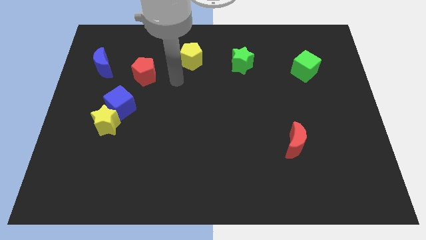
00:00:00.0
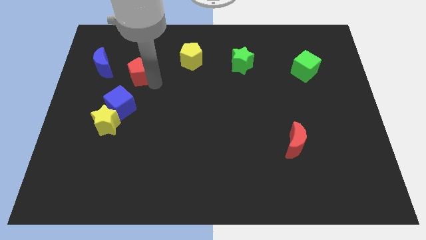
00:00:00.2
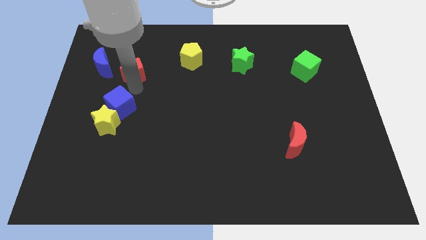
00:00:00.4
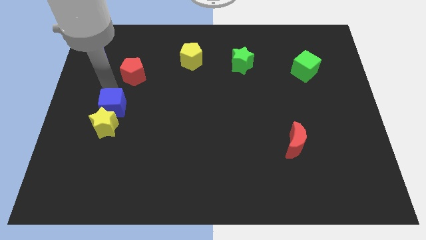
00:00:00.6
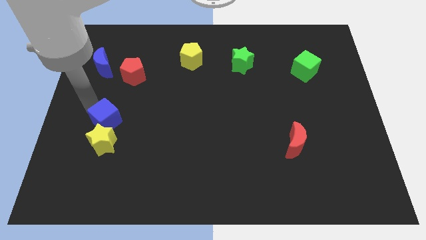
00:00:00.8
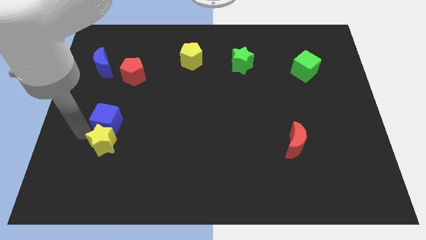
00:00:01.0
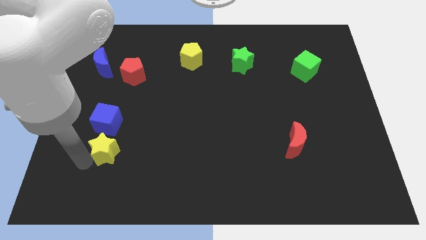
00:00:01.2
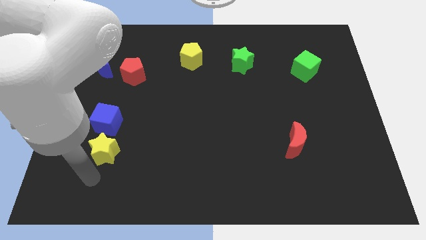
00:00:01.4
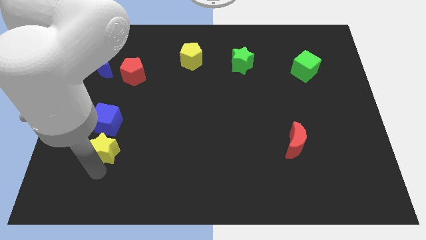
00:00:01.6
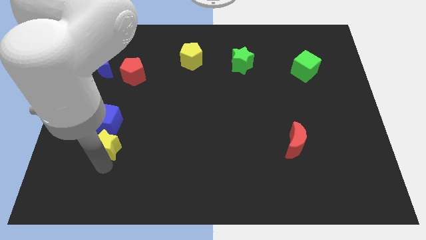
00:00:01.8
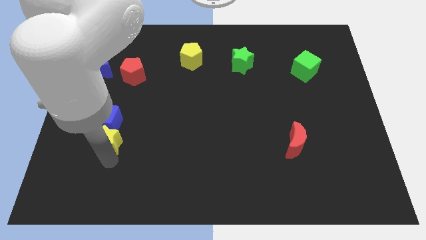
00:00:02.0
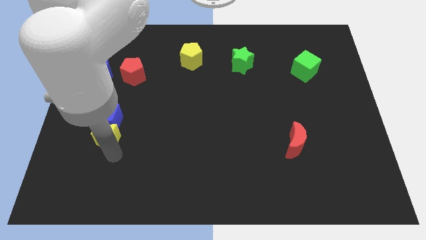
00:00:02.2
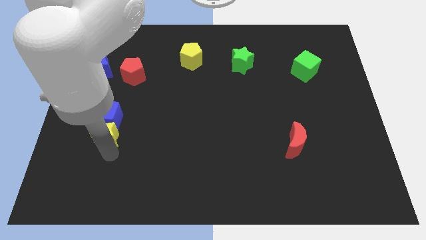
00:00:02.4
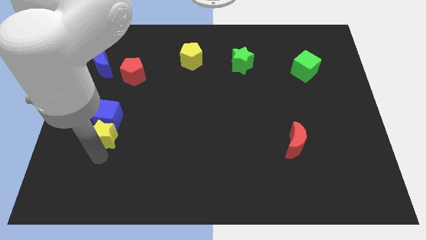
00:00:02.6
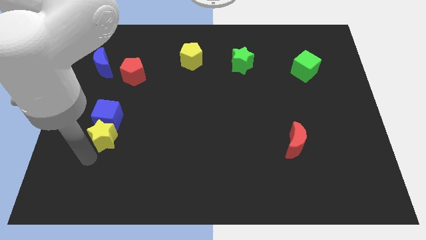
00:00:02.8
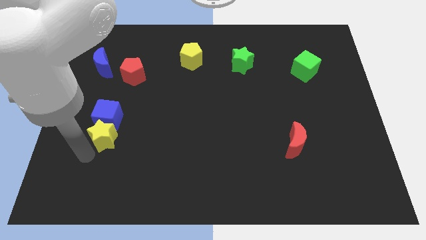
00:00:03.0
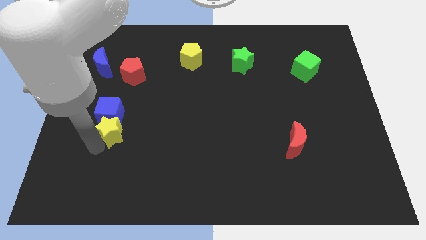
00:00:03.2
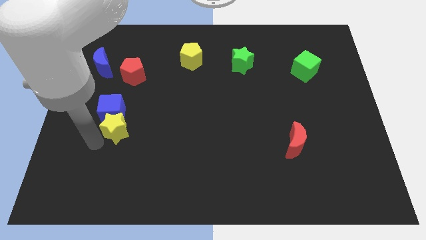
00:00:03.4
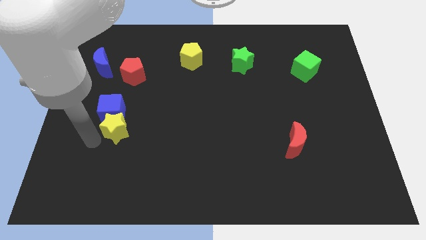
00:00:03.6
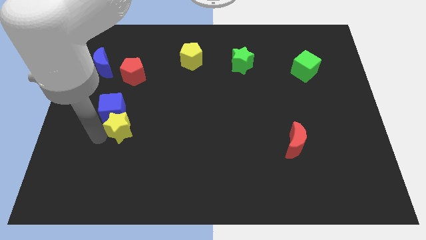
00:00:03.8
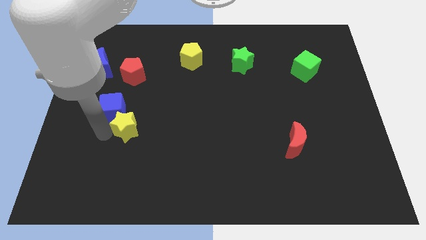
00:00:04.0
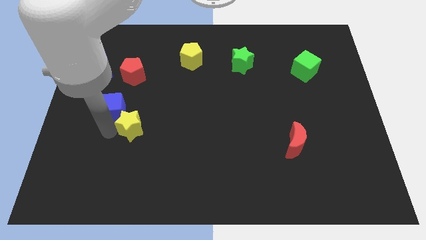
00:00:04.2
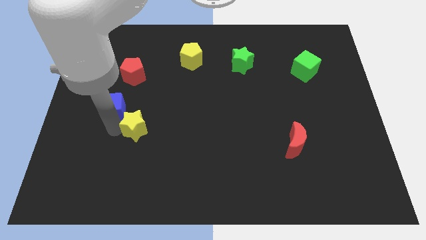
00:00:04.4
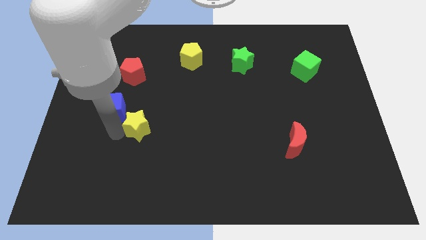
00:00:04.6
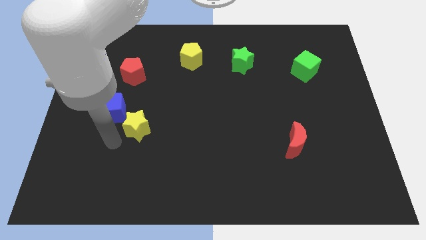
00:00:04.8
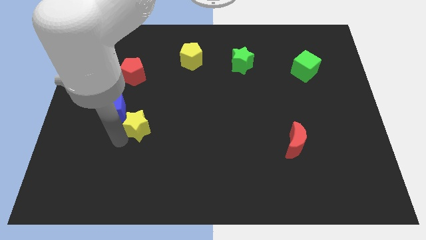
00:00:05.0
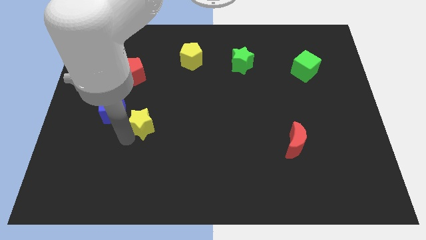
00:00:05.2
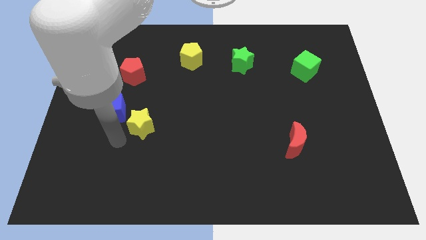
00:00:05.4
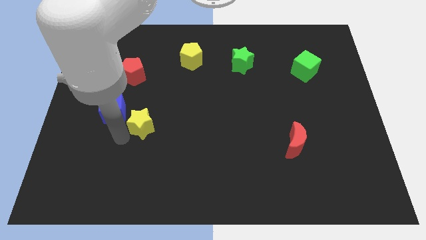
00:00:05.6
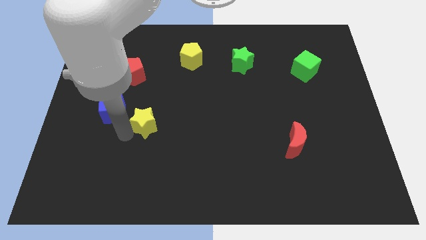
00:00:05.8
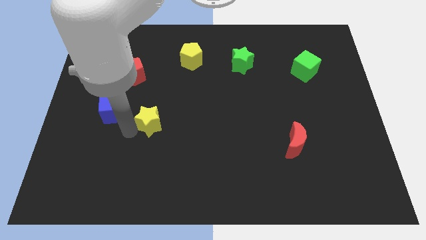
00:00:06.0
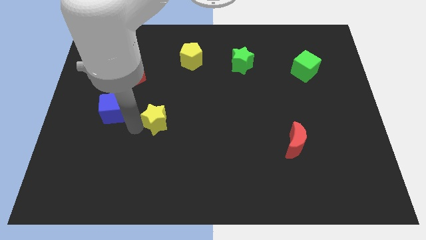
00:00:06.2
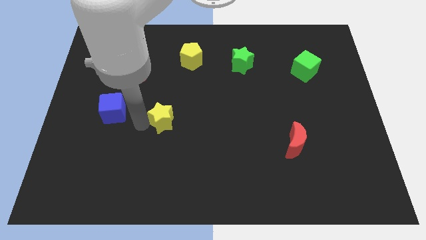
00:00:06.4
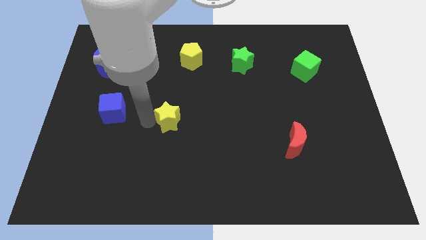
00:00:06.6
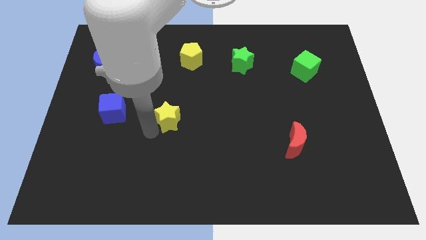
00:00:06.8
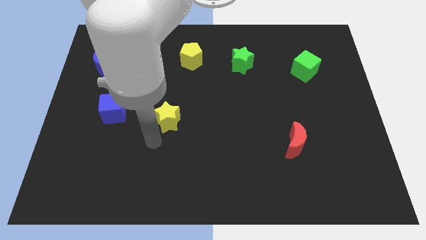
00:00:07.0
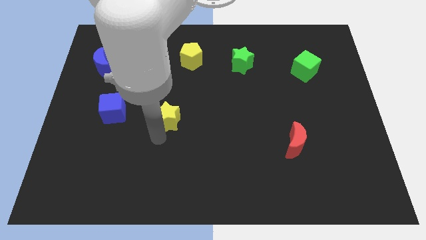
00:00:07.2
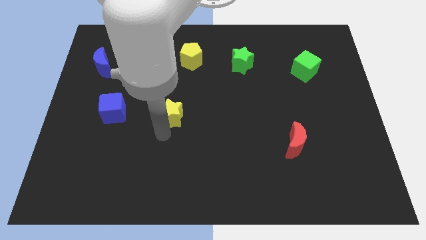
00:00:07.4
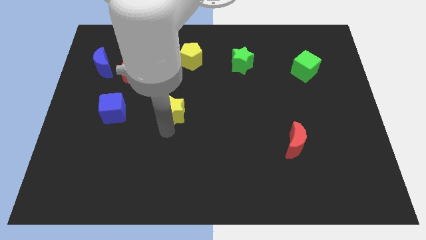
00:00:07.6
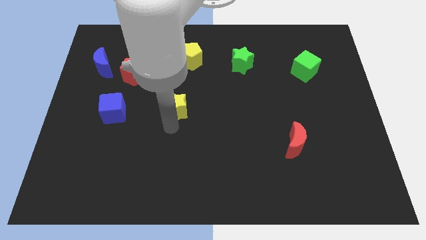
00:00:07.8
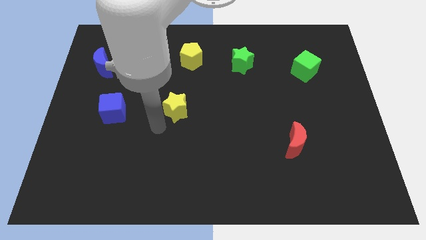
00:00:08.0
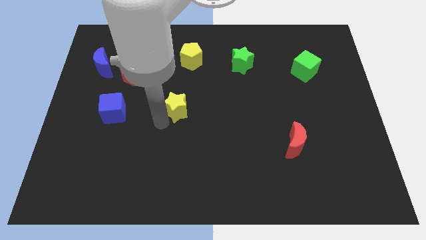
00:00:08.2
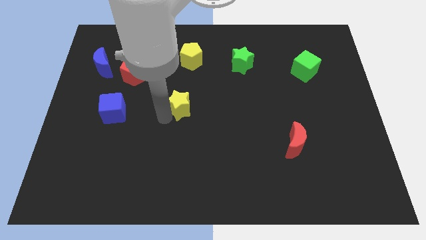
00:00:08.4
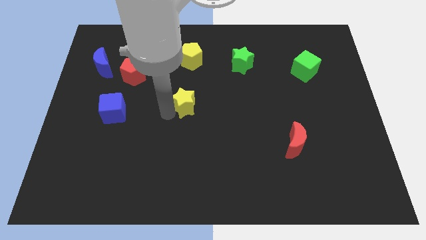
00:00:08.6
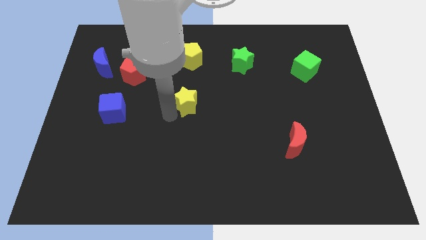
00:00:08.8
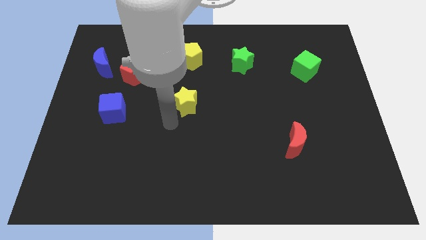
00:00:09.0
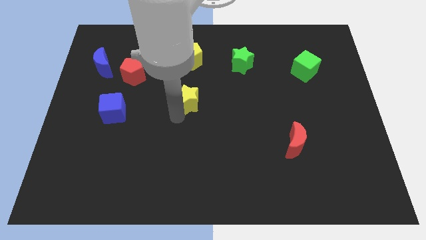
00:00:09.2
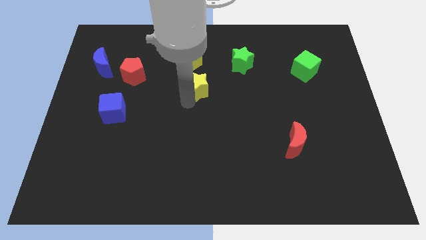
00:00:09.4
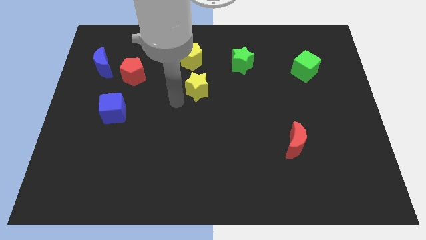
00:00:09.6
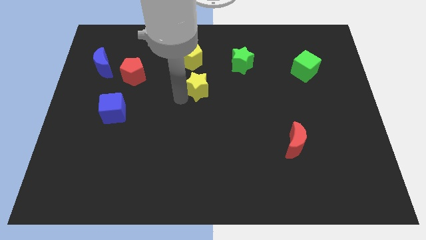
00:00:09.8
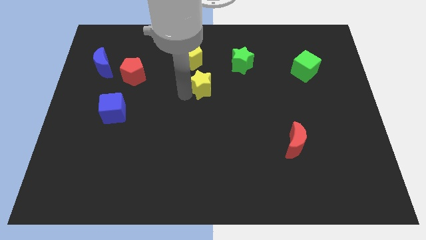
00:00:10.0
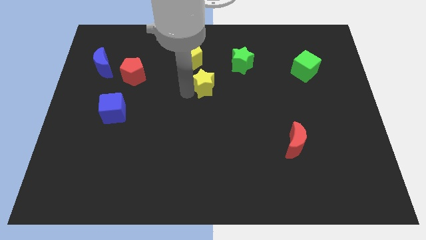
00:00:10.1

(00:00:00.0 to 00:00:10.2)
put the yellow star to the bottom left of the green star

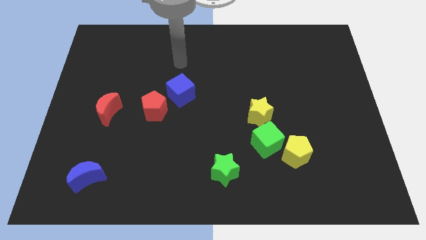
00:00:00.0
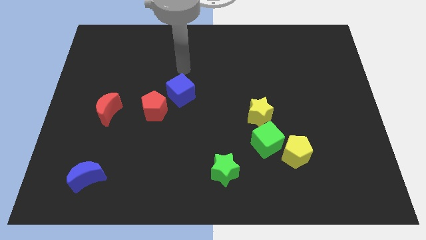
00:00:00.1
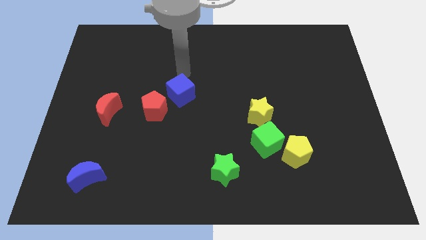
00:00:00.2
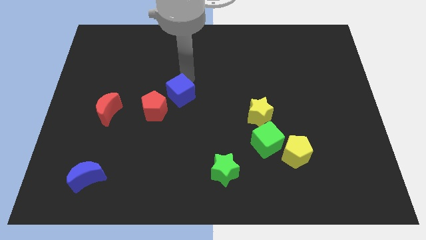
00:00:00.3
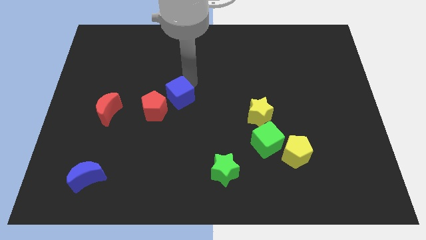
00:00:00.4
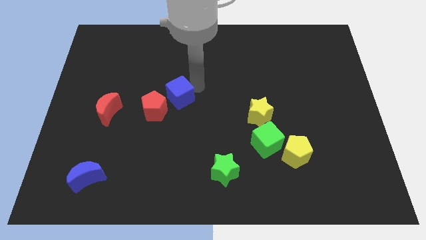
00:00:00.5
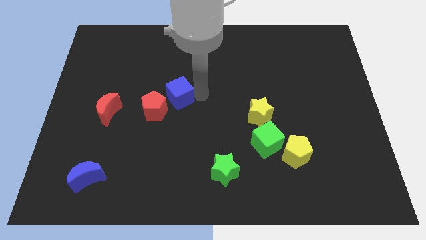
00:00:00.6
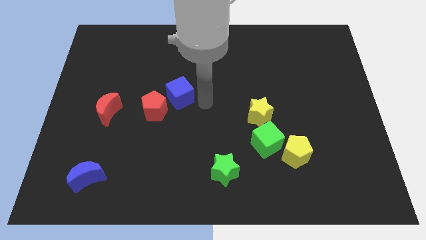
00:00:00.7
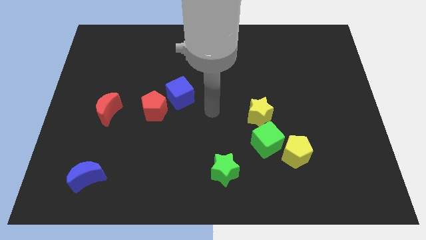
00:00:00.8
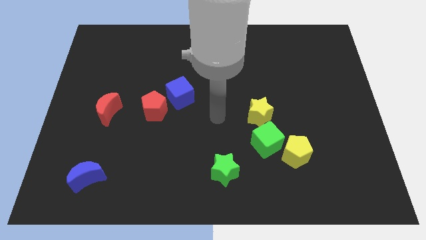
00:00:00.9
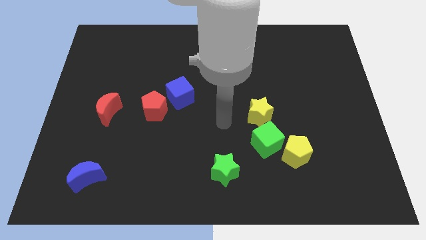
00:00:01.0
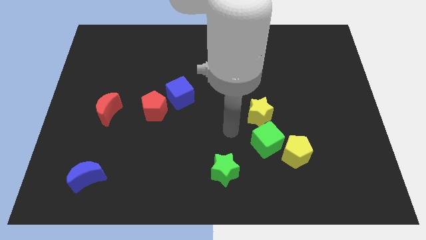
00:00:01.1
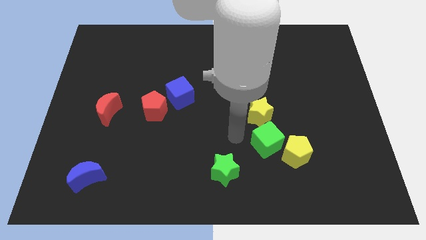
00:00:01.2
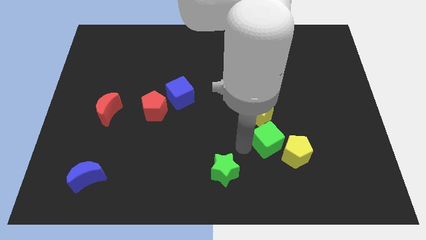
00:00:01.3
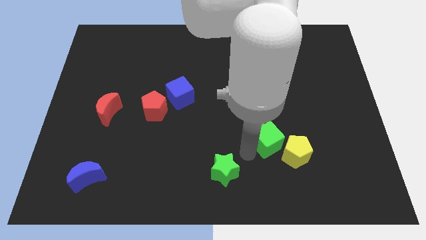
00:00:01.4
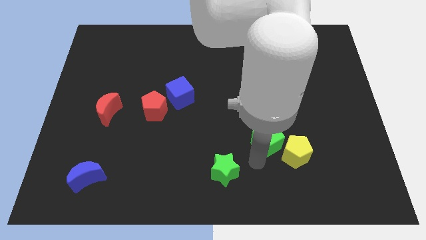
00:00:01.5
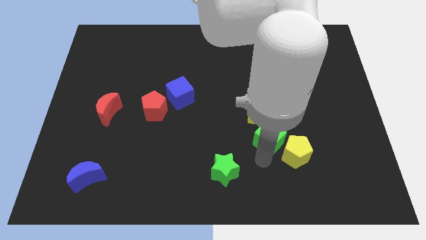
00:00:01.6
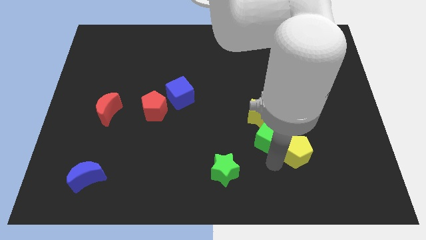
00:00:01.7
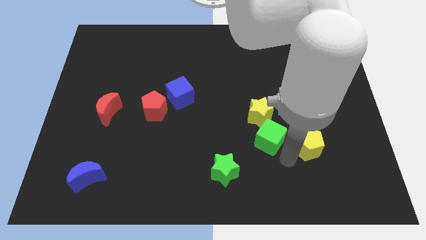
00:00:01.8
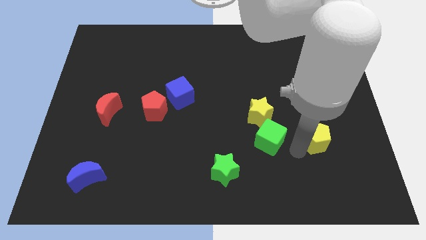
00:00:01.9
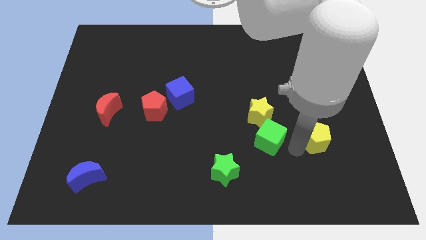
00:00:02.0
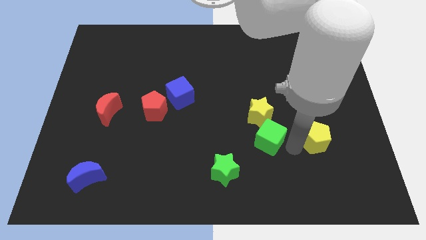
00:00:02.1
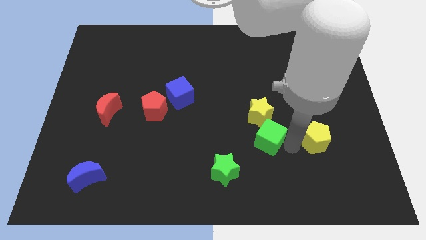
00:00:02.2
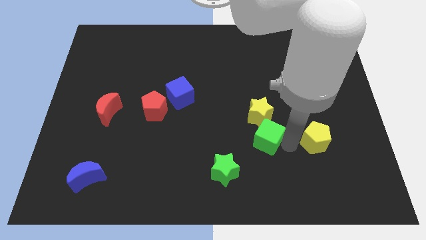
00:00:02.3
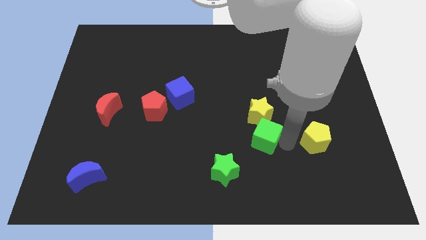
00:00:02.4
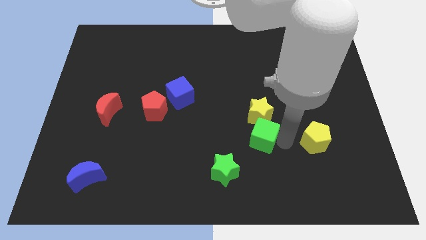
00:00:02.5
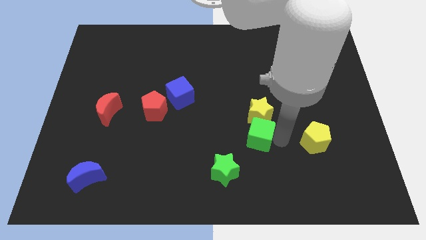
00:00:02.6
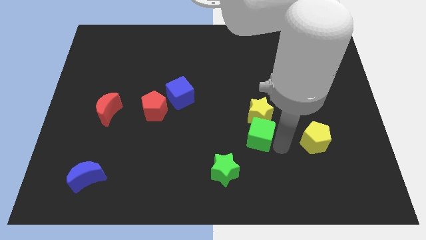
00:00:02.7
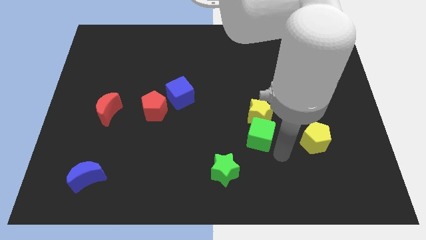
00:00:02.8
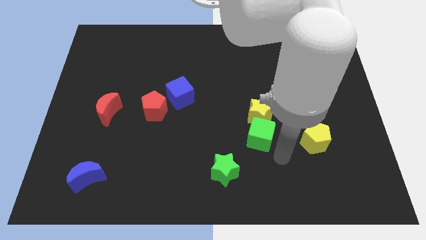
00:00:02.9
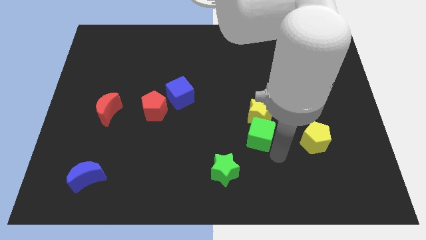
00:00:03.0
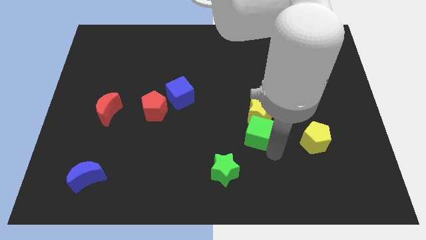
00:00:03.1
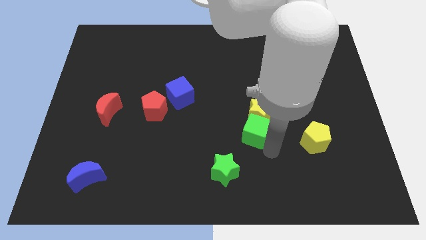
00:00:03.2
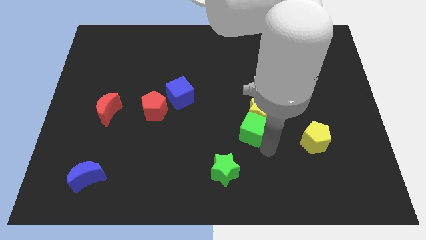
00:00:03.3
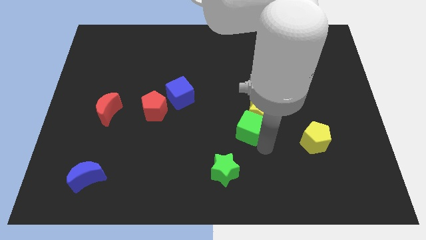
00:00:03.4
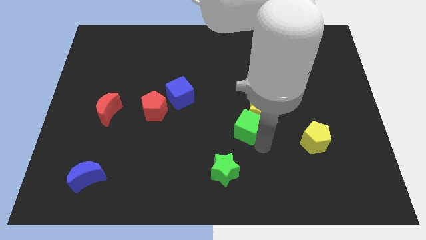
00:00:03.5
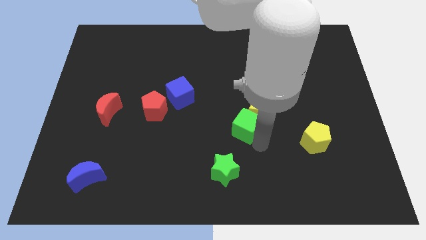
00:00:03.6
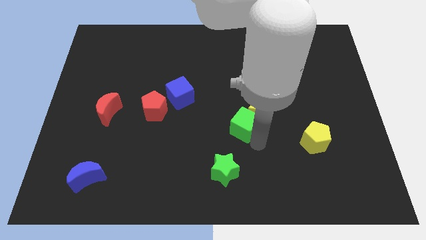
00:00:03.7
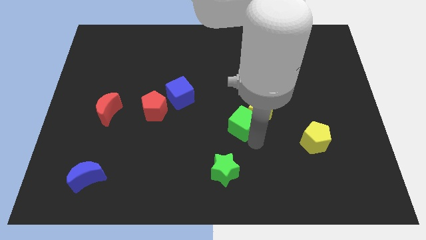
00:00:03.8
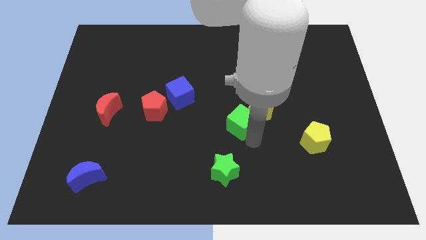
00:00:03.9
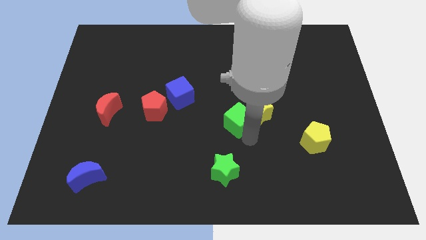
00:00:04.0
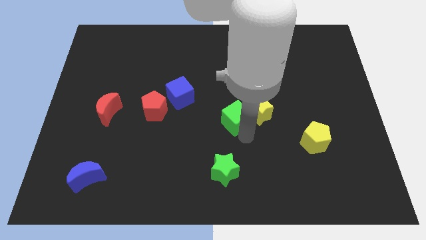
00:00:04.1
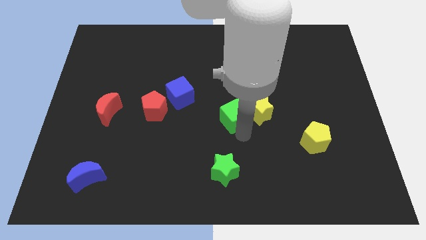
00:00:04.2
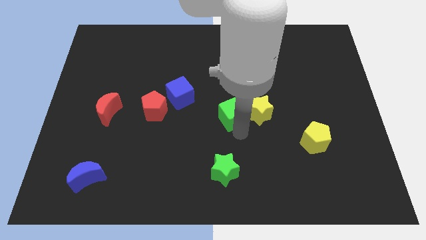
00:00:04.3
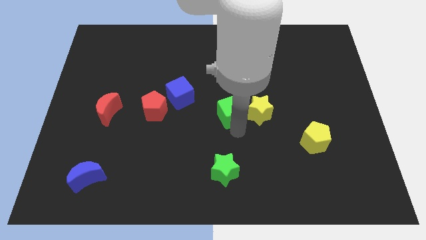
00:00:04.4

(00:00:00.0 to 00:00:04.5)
move the green cube to the top left side of the yellow star
